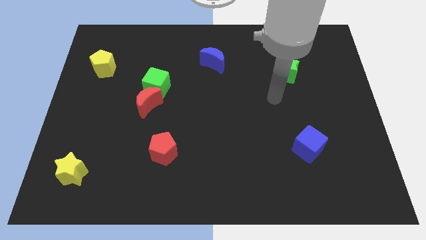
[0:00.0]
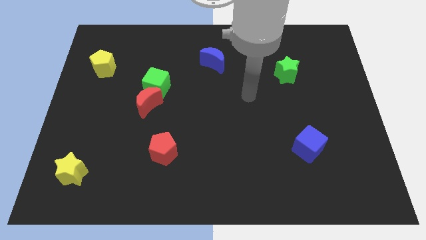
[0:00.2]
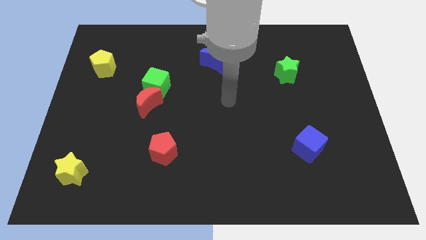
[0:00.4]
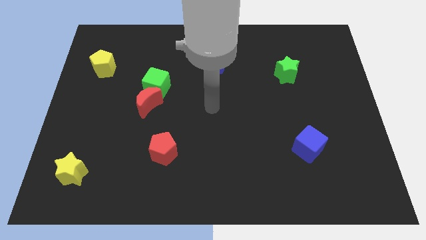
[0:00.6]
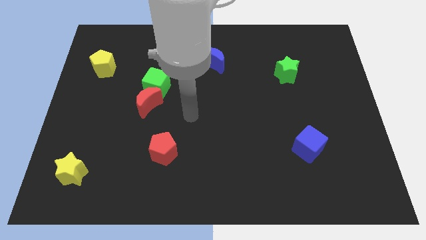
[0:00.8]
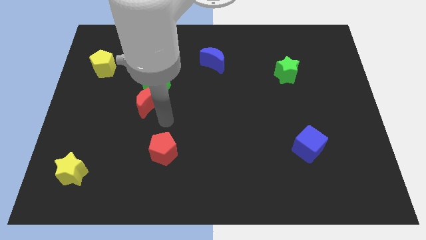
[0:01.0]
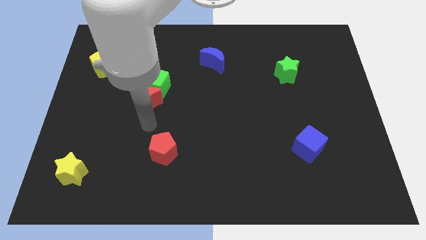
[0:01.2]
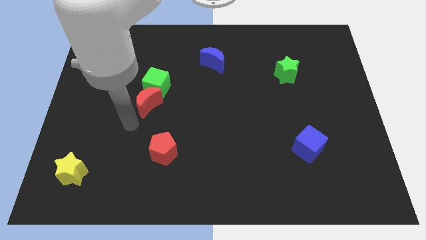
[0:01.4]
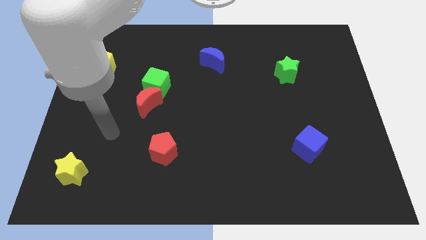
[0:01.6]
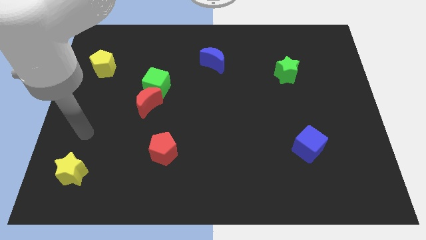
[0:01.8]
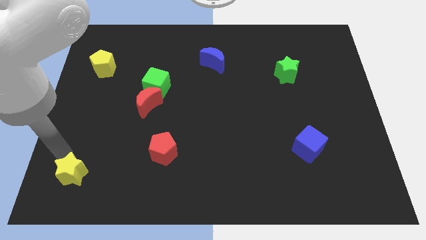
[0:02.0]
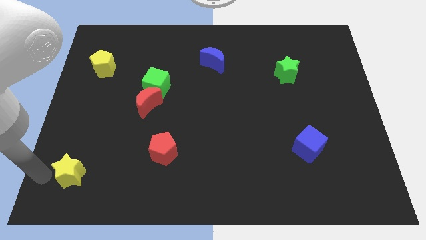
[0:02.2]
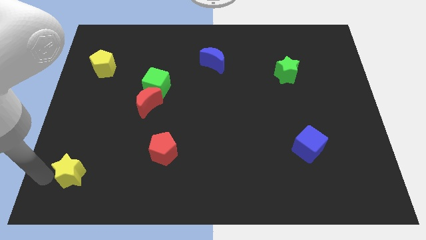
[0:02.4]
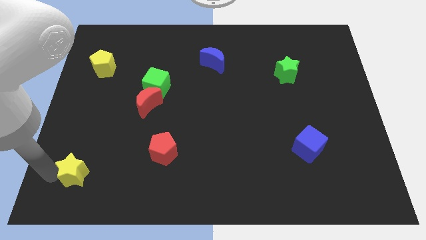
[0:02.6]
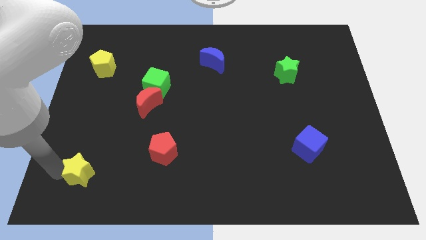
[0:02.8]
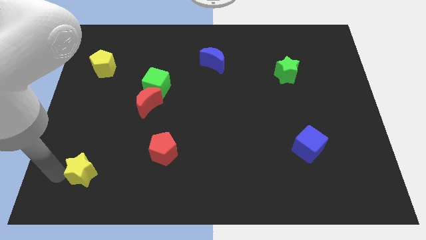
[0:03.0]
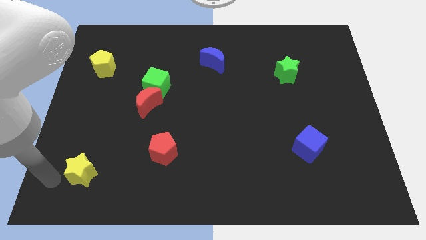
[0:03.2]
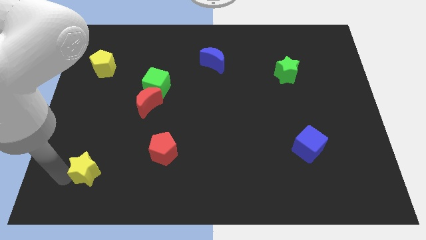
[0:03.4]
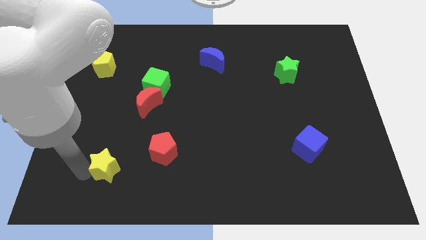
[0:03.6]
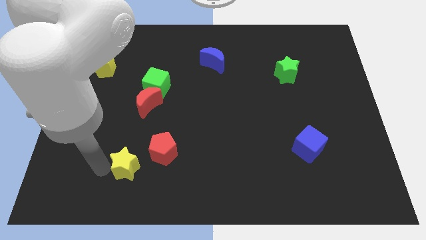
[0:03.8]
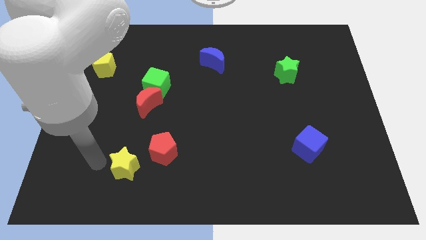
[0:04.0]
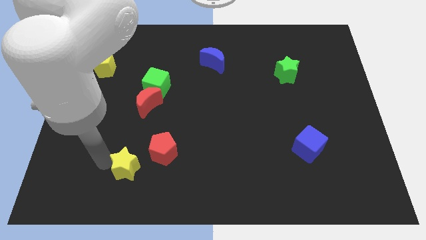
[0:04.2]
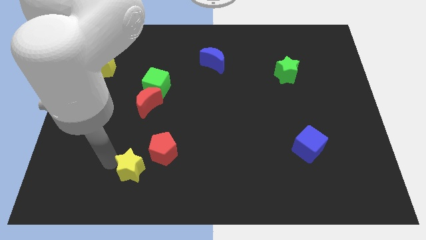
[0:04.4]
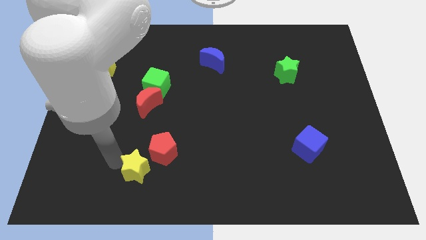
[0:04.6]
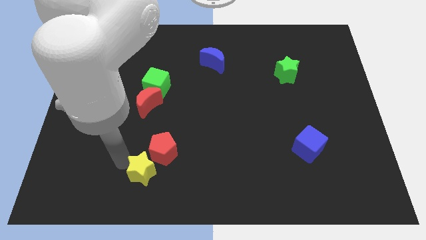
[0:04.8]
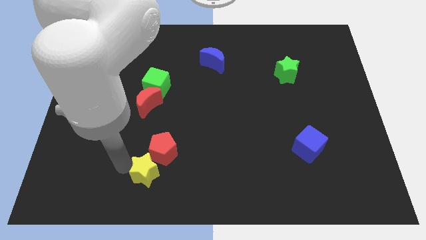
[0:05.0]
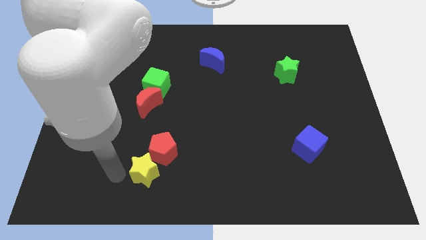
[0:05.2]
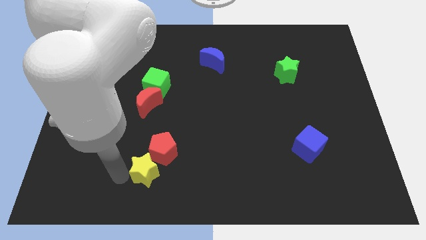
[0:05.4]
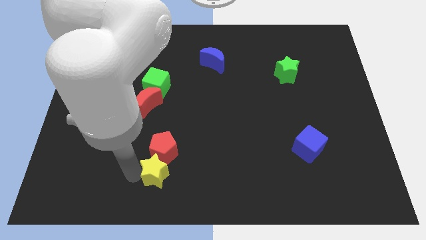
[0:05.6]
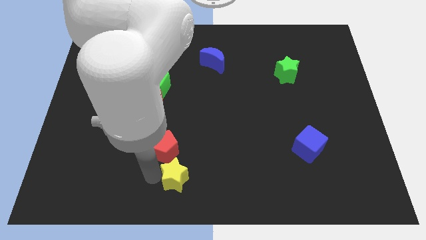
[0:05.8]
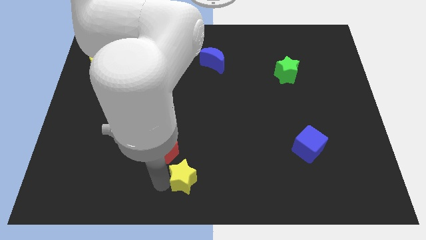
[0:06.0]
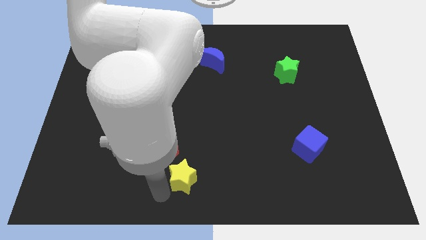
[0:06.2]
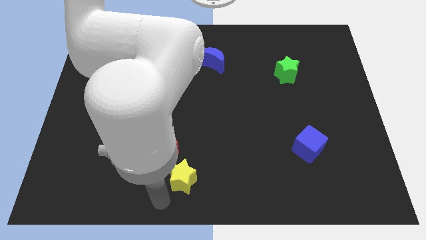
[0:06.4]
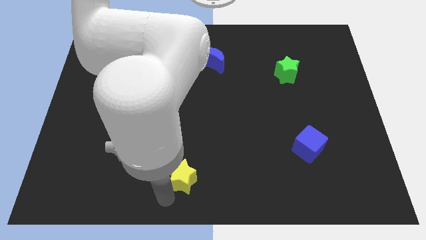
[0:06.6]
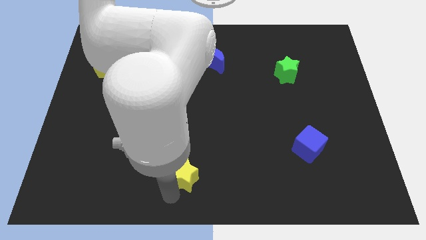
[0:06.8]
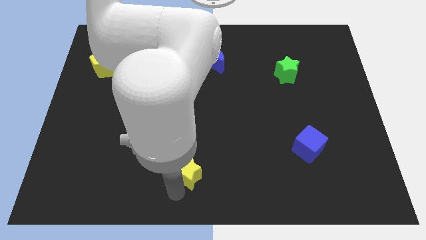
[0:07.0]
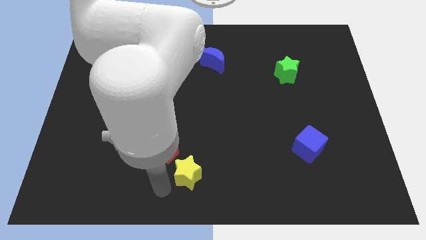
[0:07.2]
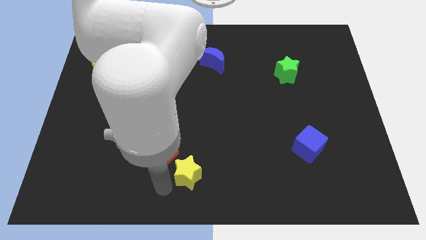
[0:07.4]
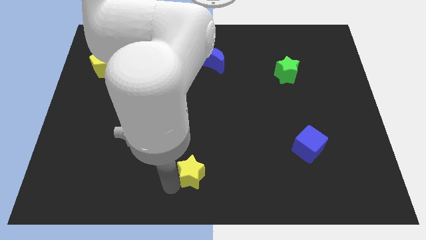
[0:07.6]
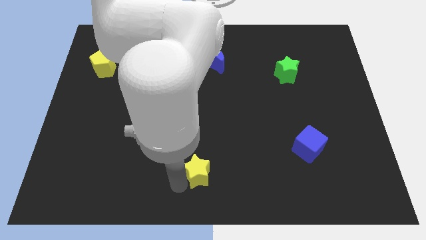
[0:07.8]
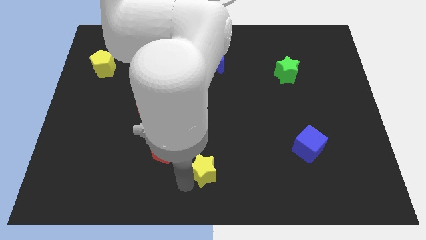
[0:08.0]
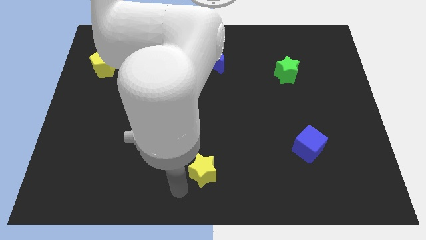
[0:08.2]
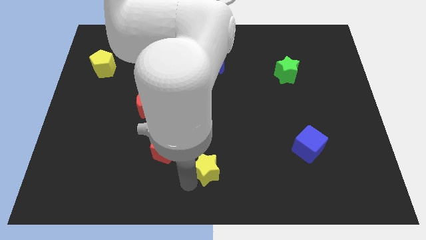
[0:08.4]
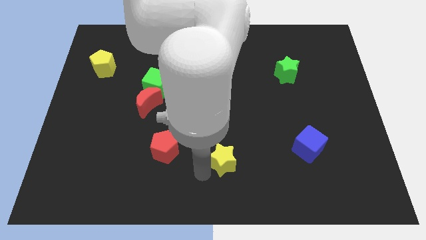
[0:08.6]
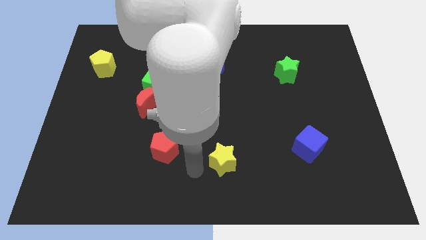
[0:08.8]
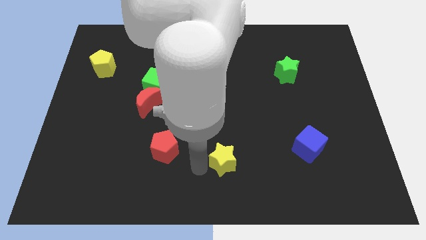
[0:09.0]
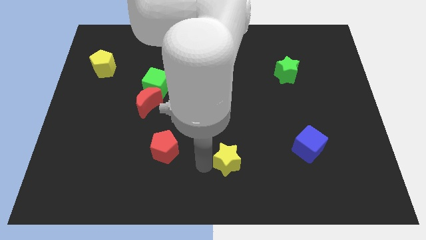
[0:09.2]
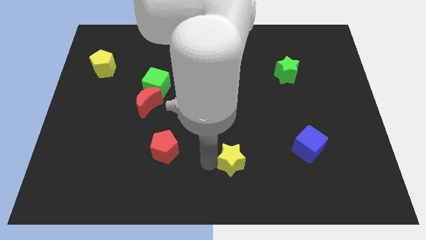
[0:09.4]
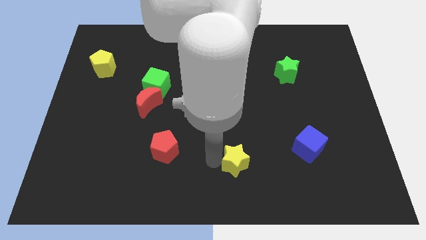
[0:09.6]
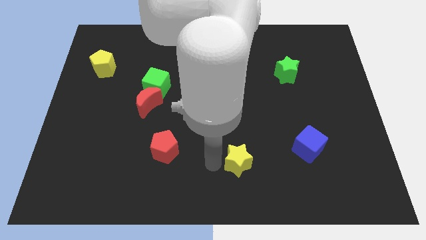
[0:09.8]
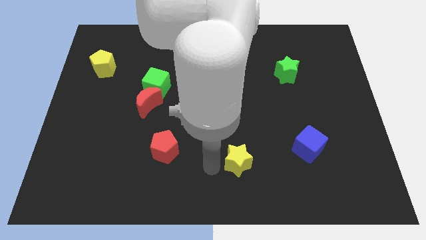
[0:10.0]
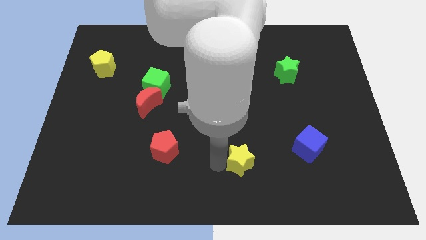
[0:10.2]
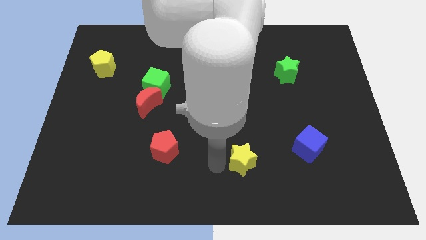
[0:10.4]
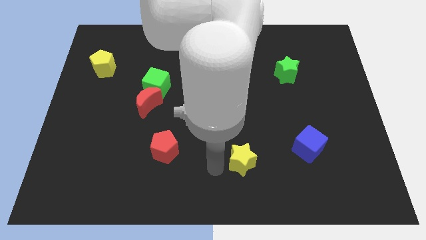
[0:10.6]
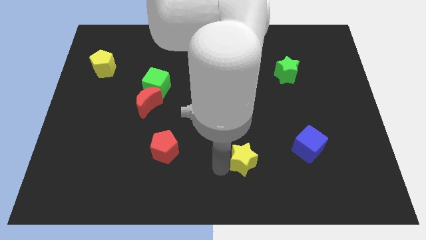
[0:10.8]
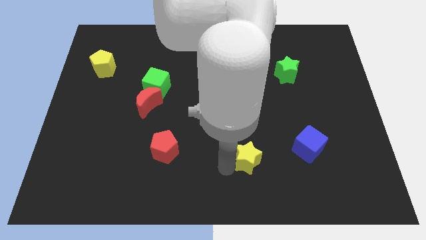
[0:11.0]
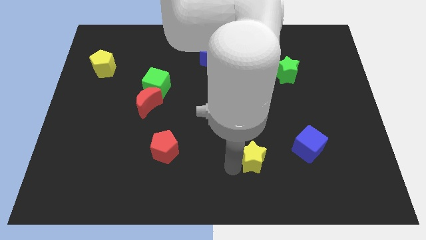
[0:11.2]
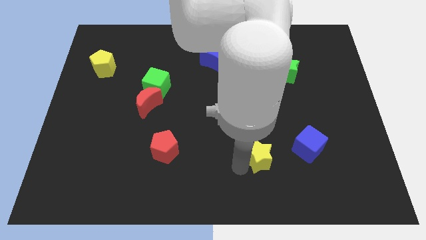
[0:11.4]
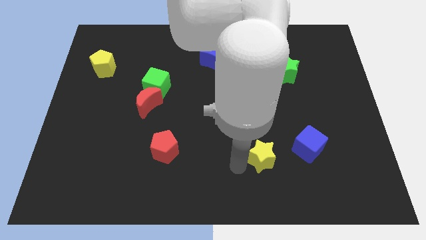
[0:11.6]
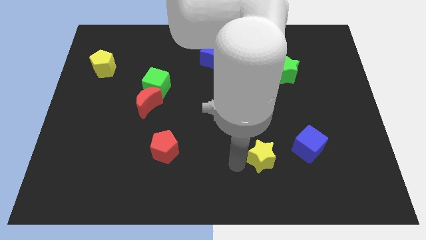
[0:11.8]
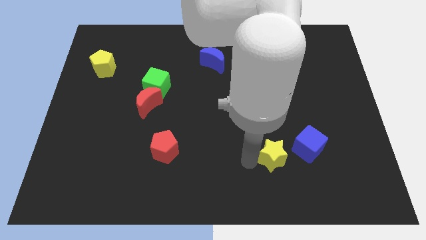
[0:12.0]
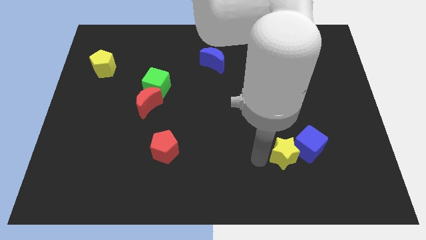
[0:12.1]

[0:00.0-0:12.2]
push the yellow star towards the blue cube
